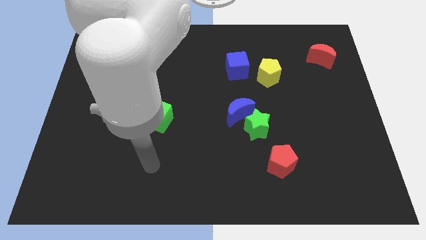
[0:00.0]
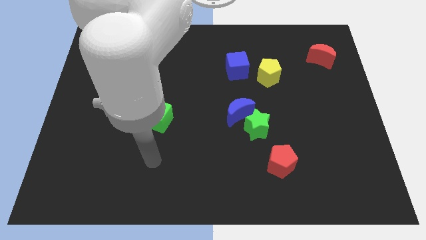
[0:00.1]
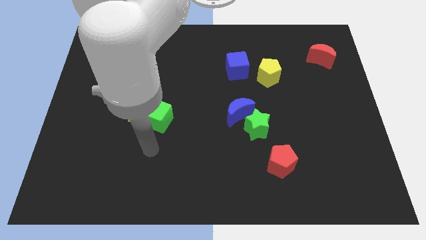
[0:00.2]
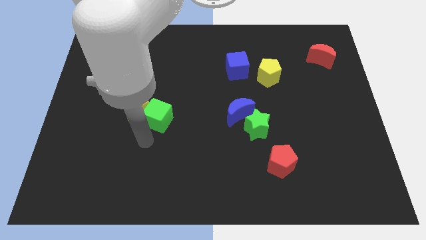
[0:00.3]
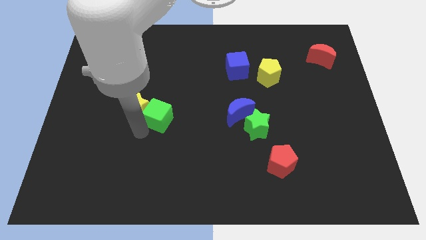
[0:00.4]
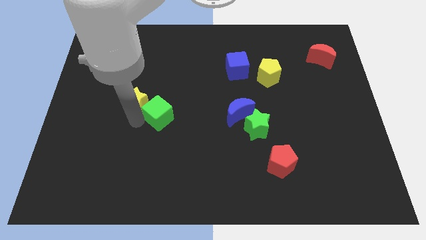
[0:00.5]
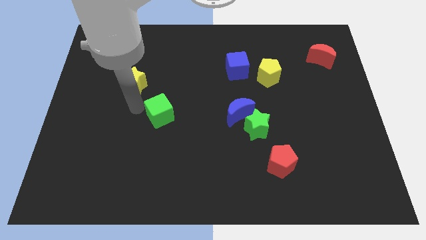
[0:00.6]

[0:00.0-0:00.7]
pull the green cube apart from the yellow star

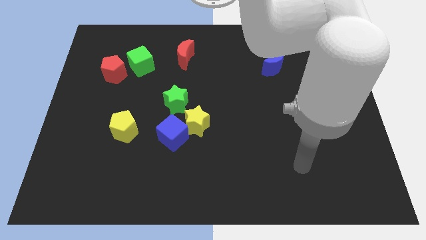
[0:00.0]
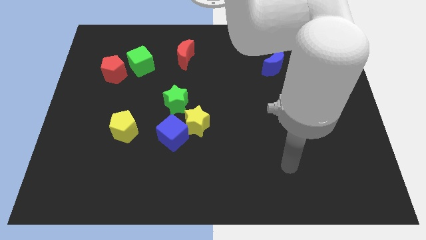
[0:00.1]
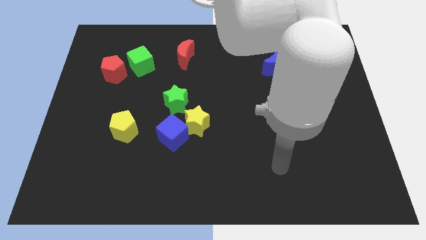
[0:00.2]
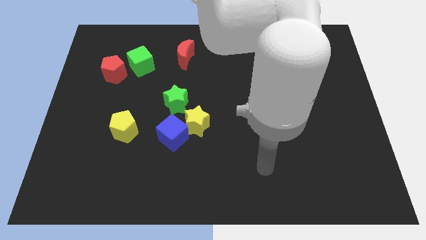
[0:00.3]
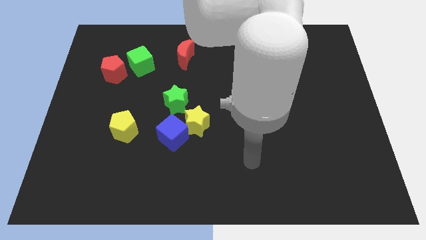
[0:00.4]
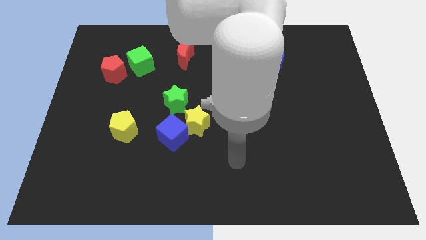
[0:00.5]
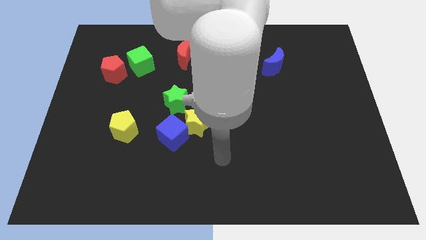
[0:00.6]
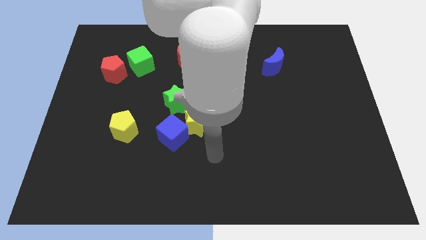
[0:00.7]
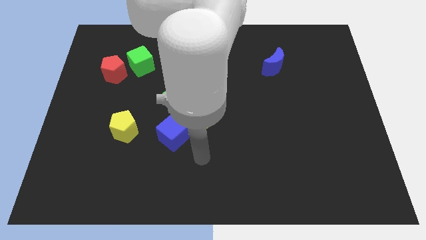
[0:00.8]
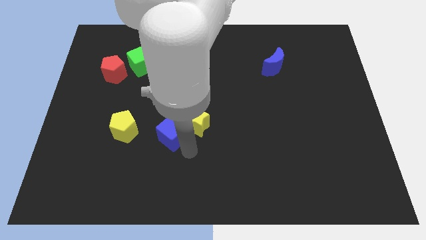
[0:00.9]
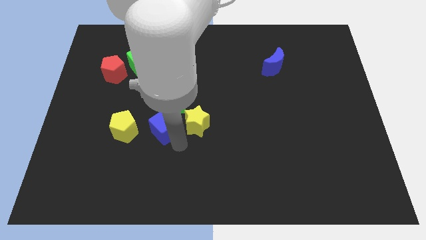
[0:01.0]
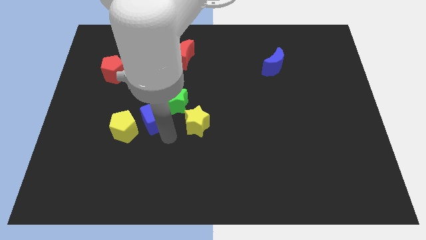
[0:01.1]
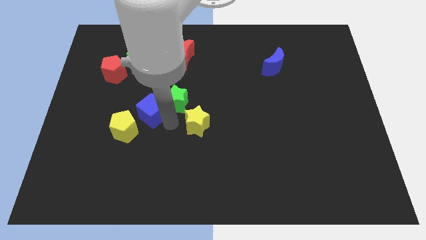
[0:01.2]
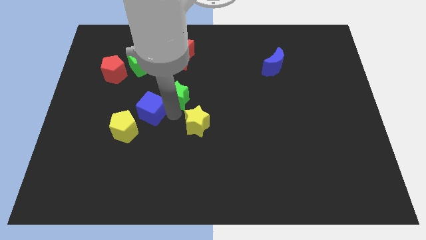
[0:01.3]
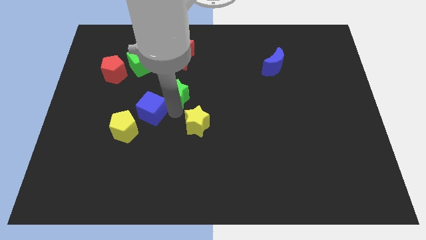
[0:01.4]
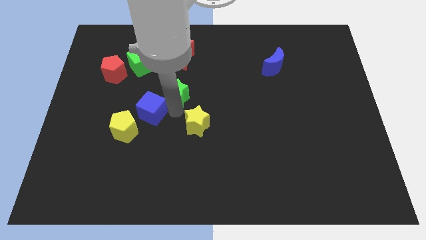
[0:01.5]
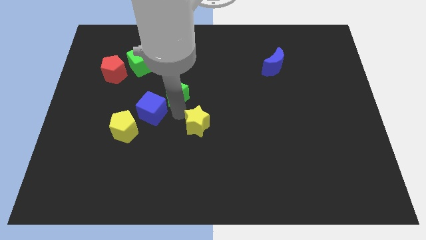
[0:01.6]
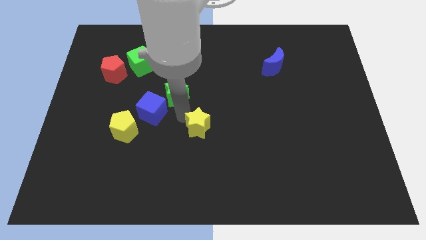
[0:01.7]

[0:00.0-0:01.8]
pull the yellow star apart from the blue cube and green star

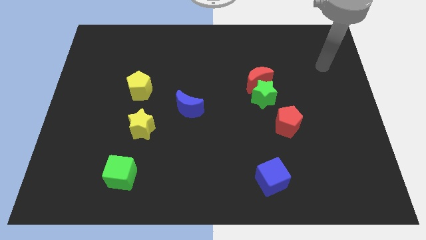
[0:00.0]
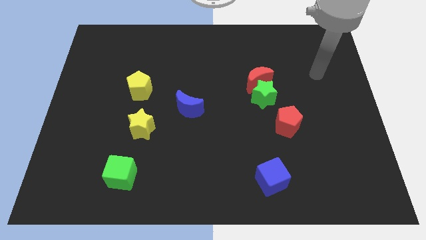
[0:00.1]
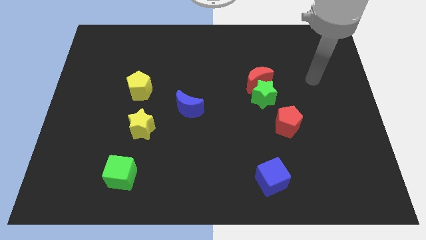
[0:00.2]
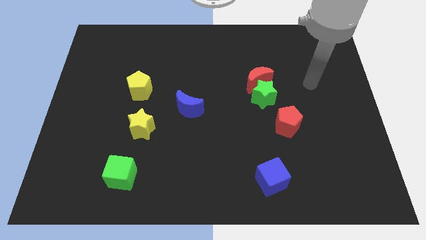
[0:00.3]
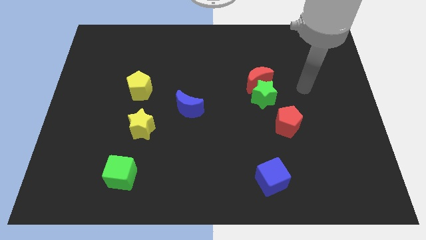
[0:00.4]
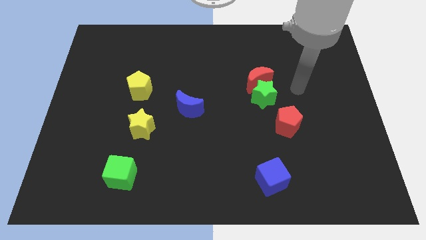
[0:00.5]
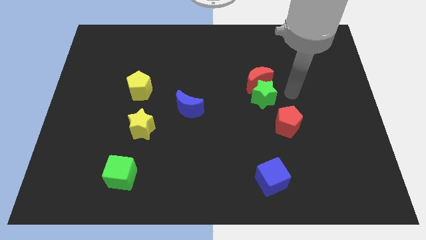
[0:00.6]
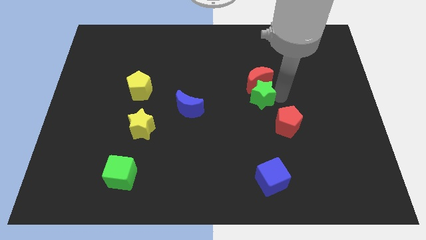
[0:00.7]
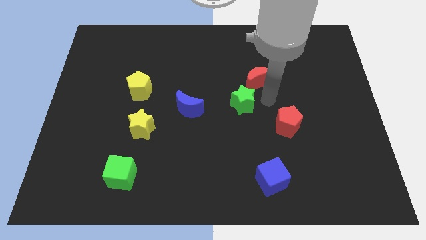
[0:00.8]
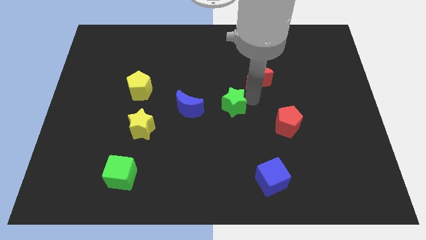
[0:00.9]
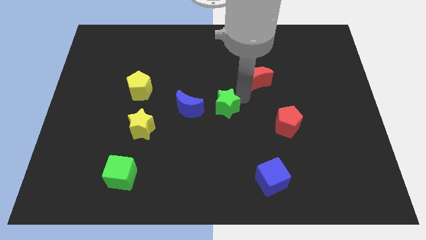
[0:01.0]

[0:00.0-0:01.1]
pull the red moon apart from the green star

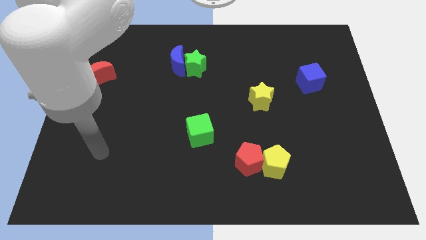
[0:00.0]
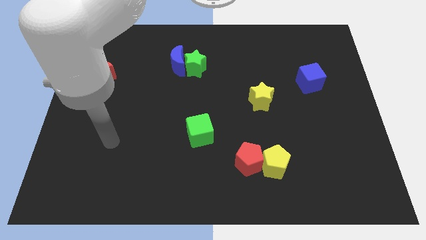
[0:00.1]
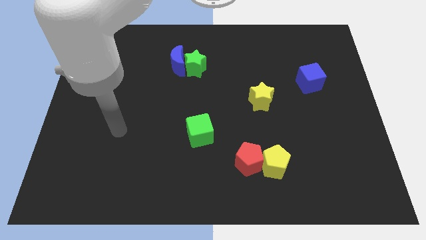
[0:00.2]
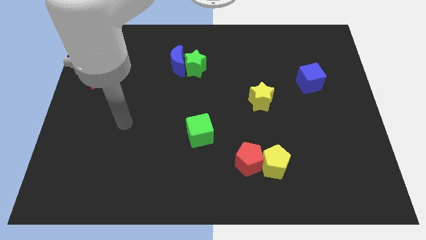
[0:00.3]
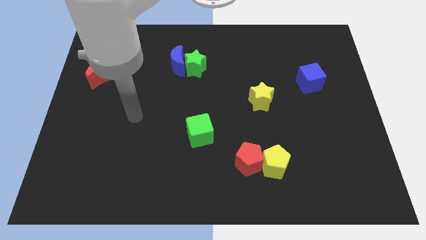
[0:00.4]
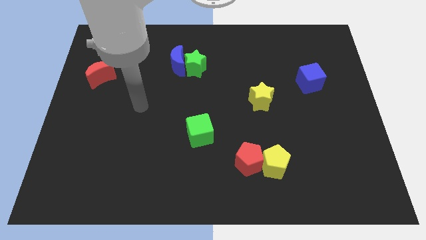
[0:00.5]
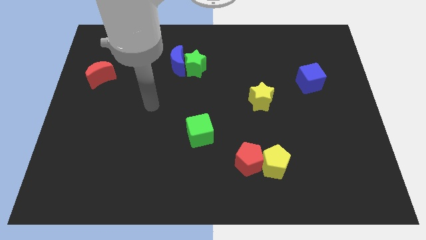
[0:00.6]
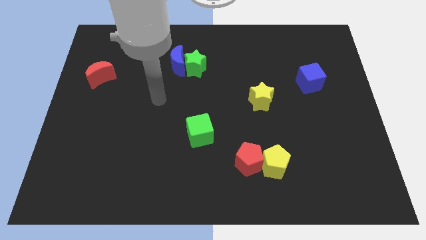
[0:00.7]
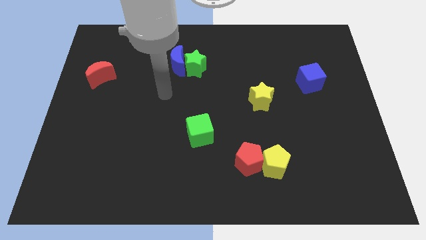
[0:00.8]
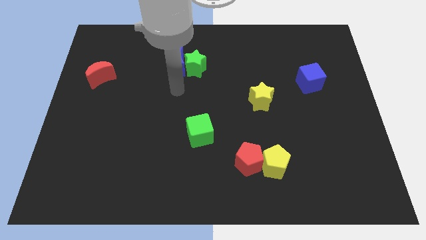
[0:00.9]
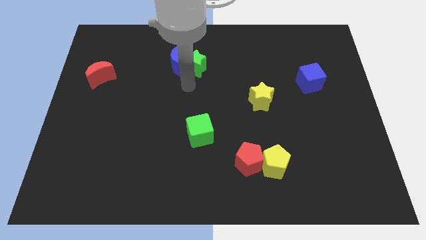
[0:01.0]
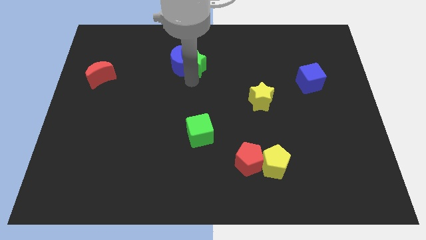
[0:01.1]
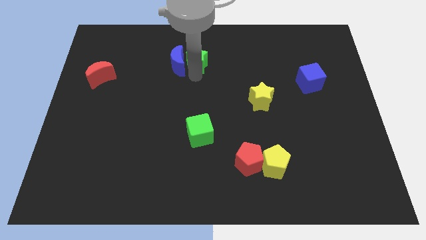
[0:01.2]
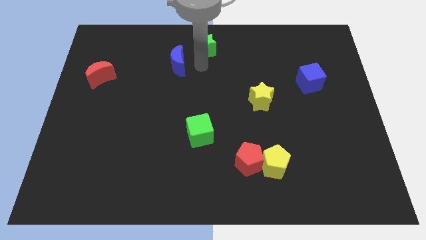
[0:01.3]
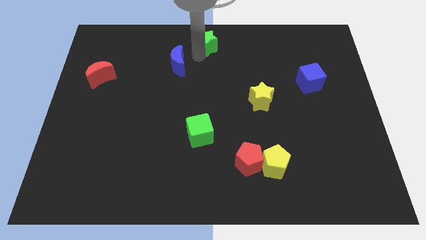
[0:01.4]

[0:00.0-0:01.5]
separate the blue moon from the green star

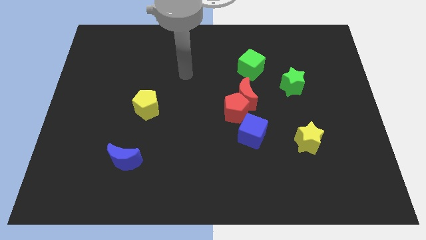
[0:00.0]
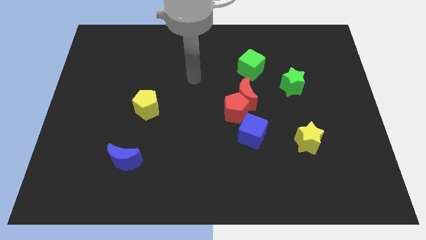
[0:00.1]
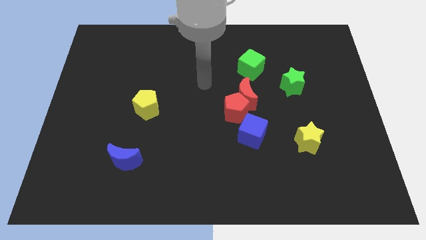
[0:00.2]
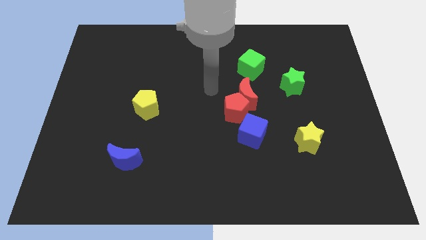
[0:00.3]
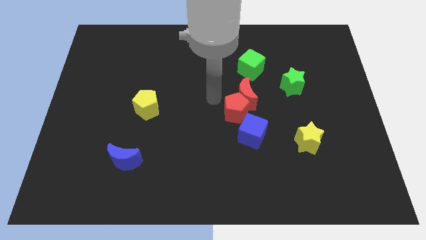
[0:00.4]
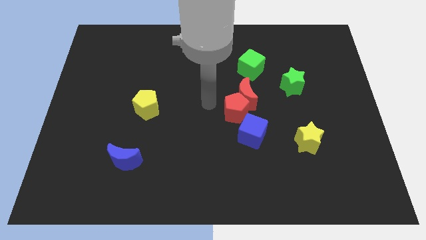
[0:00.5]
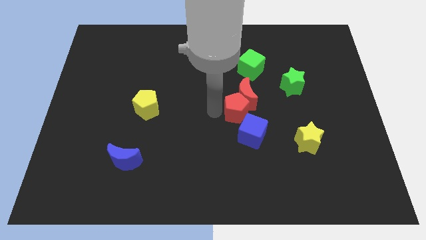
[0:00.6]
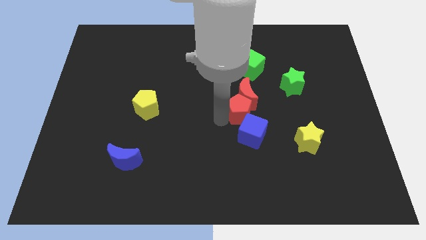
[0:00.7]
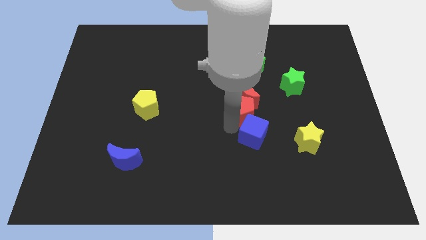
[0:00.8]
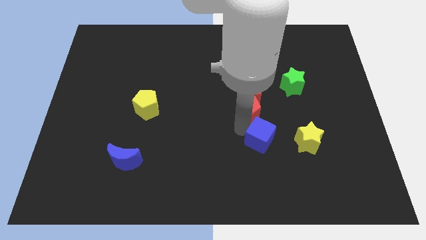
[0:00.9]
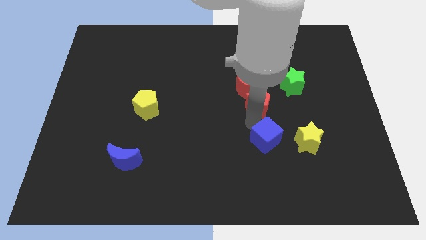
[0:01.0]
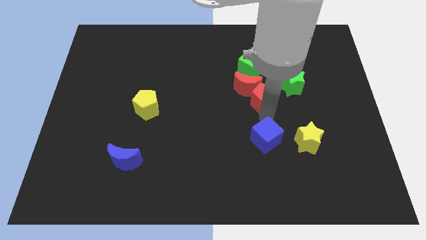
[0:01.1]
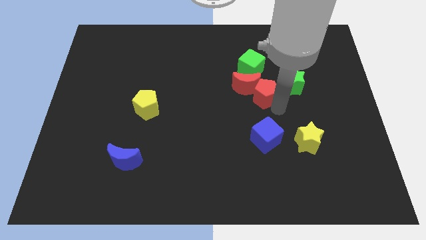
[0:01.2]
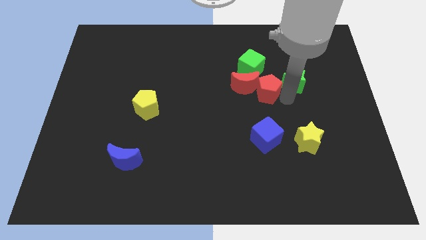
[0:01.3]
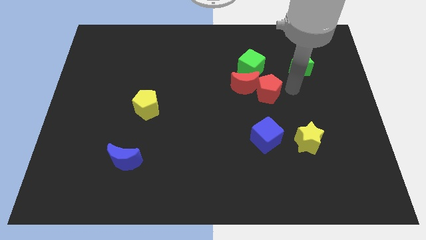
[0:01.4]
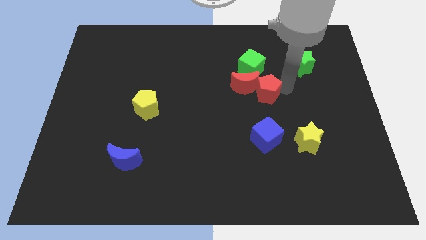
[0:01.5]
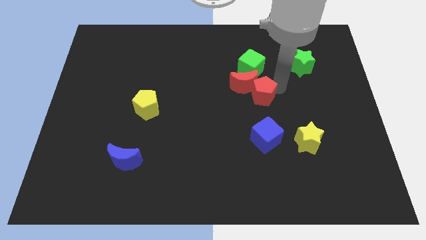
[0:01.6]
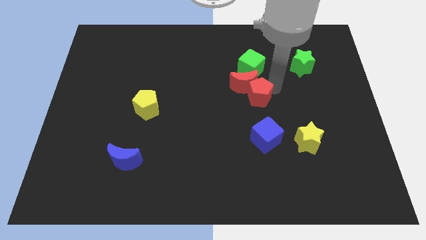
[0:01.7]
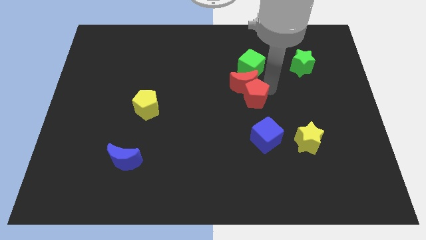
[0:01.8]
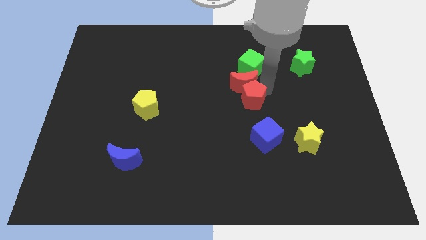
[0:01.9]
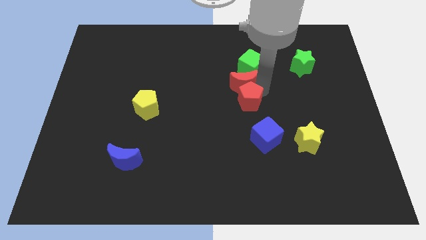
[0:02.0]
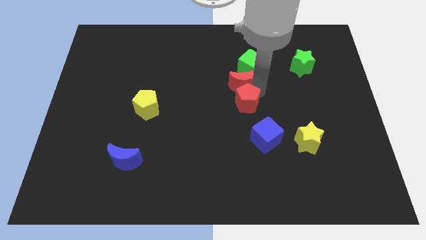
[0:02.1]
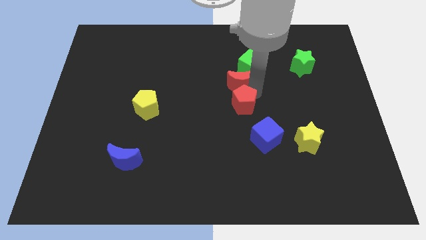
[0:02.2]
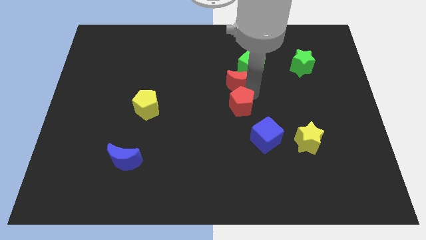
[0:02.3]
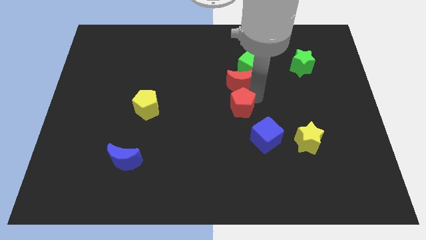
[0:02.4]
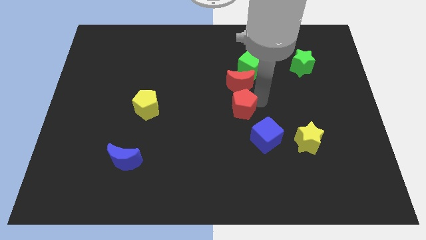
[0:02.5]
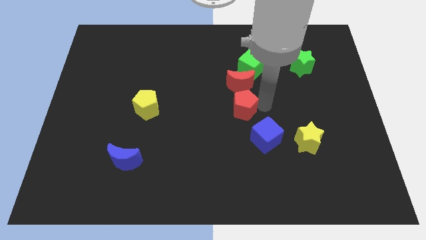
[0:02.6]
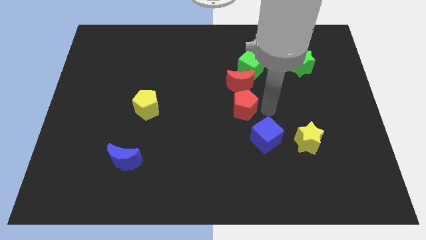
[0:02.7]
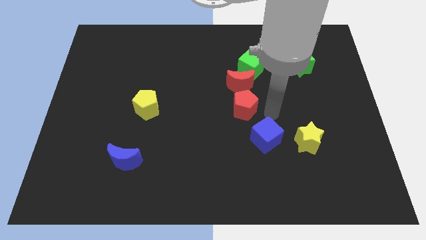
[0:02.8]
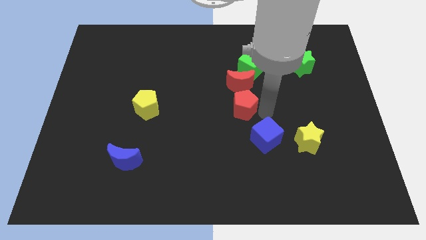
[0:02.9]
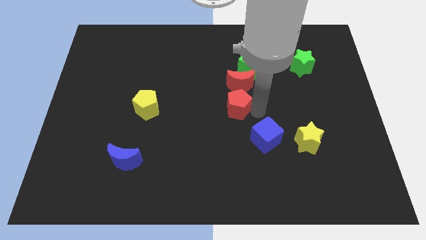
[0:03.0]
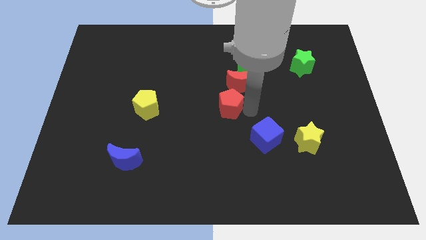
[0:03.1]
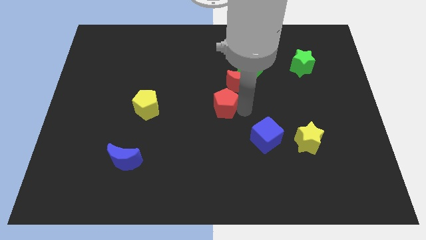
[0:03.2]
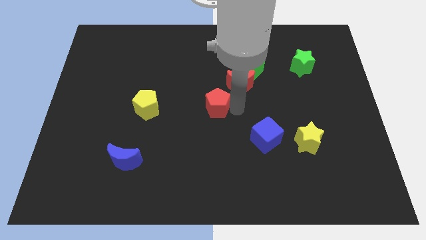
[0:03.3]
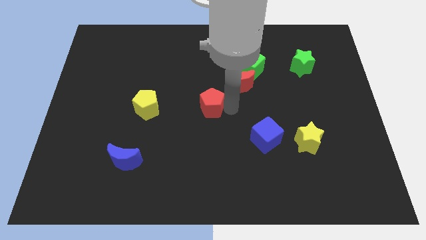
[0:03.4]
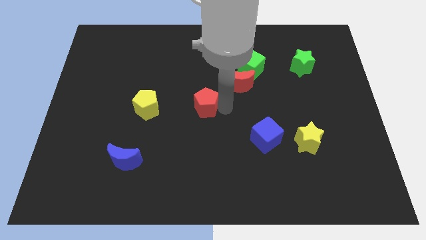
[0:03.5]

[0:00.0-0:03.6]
move the red pentagon away from the red moon and blue cube

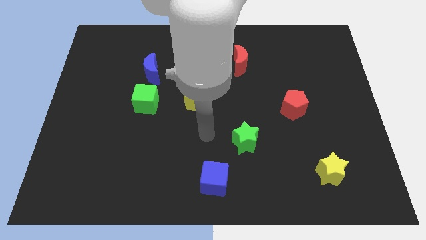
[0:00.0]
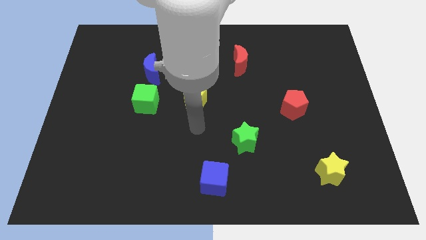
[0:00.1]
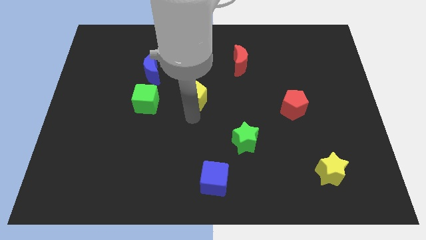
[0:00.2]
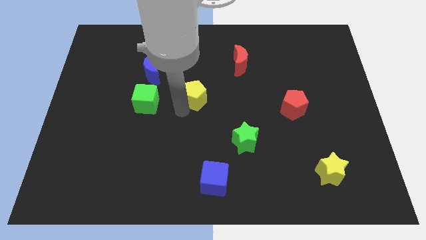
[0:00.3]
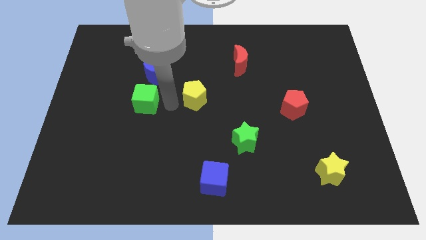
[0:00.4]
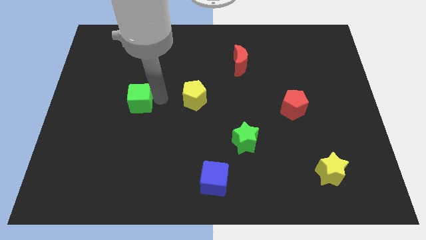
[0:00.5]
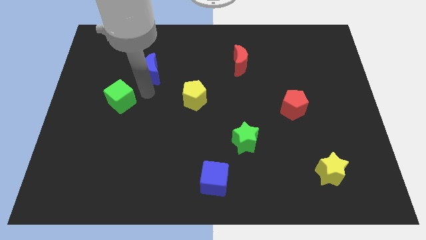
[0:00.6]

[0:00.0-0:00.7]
pull the blue moon apart from the green cube
